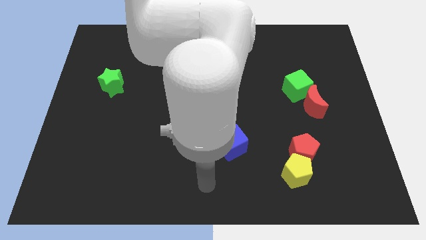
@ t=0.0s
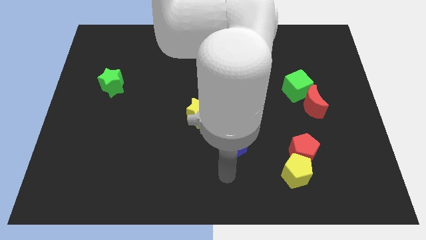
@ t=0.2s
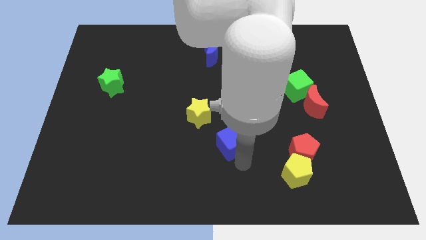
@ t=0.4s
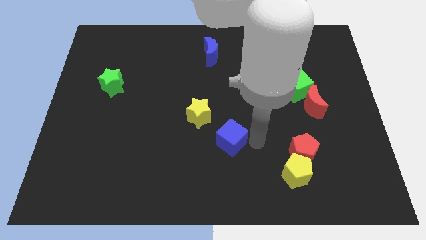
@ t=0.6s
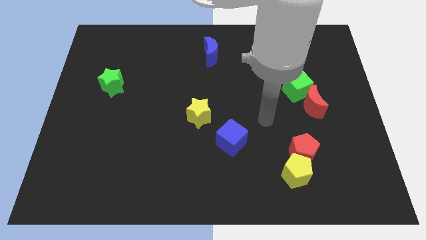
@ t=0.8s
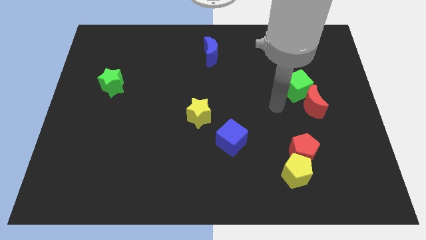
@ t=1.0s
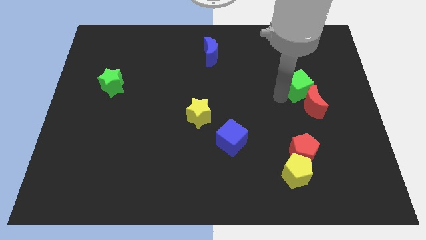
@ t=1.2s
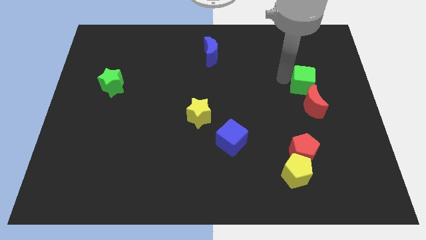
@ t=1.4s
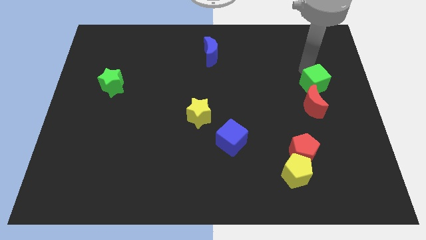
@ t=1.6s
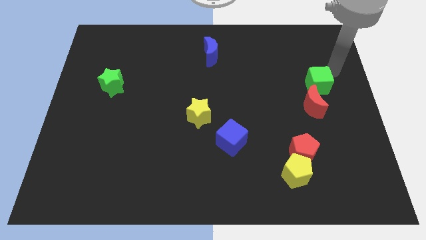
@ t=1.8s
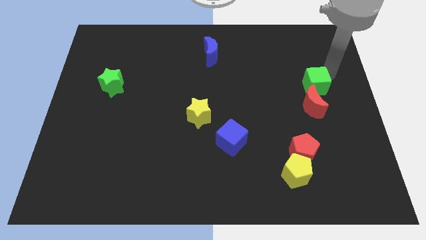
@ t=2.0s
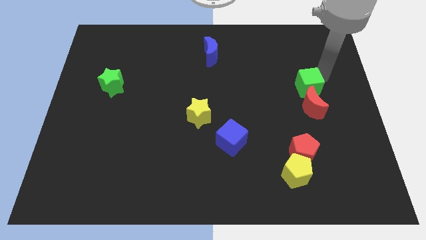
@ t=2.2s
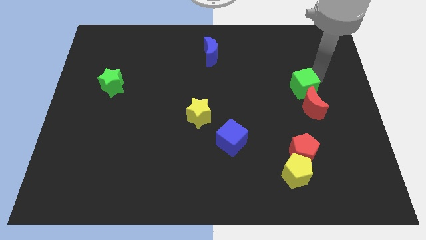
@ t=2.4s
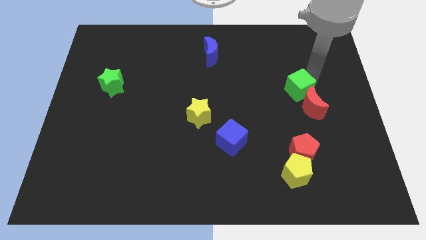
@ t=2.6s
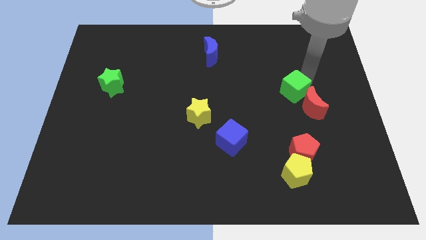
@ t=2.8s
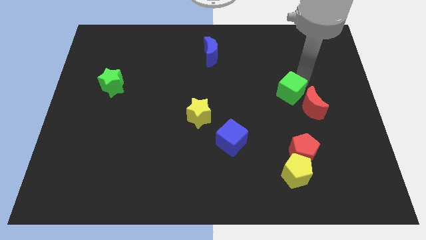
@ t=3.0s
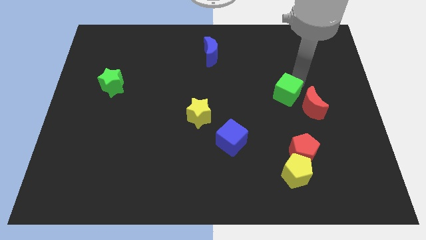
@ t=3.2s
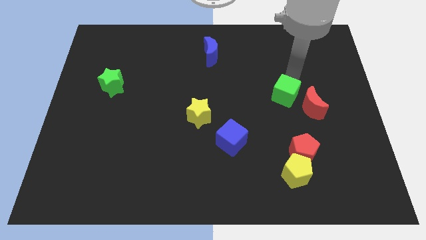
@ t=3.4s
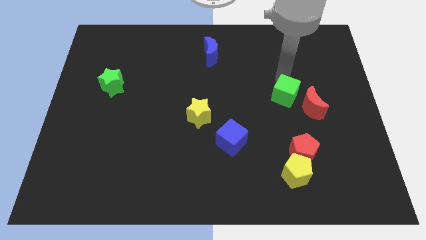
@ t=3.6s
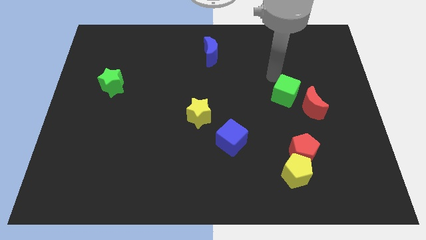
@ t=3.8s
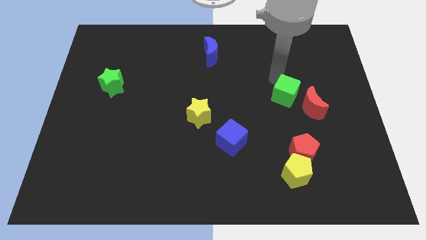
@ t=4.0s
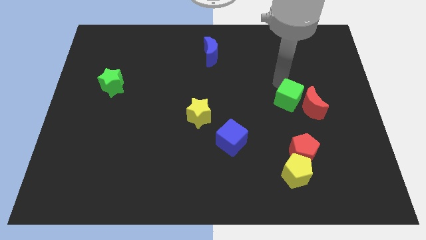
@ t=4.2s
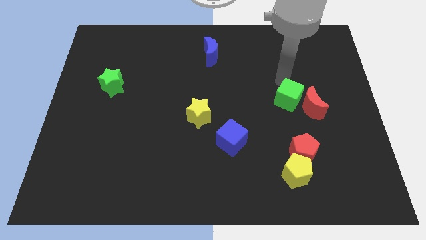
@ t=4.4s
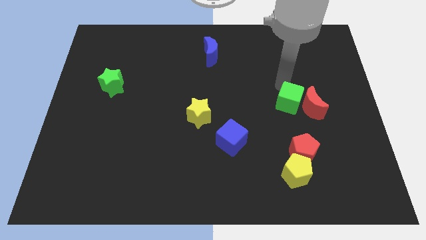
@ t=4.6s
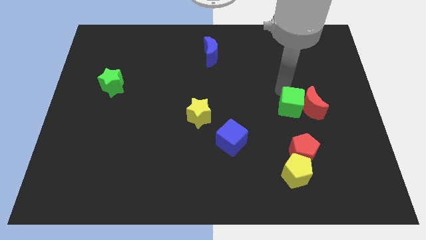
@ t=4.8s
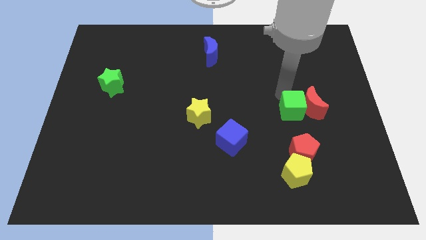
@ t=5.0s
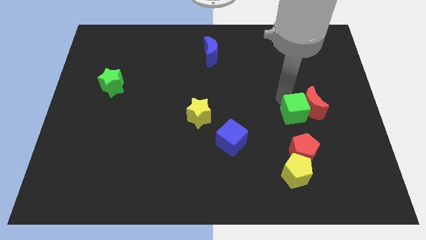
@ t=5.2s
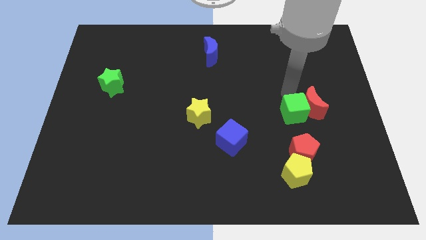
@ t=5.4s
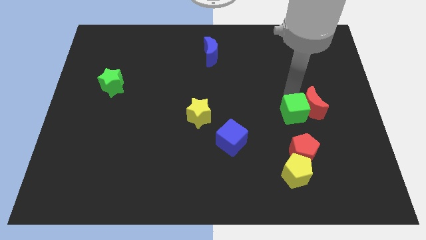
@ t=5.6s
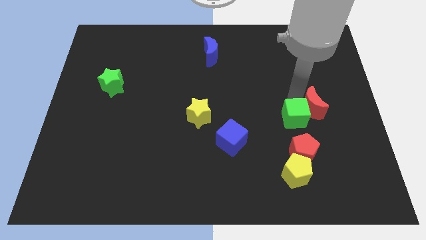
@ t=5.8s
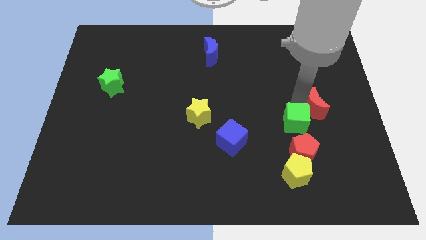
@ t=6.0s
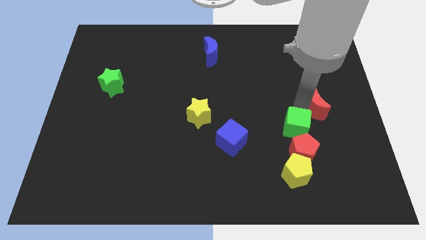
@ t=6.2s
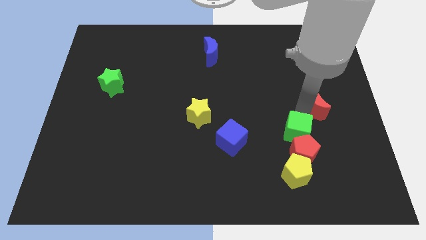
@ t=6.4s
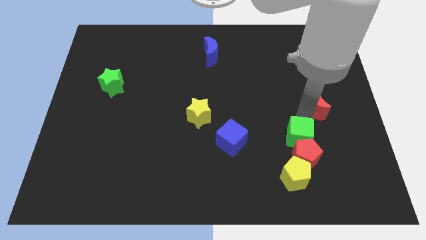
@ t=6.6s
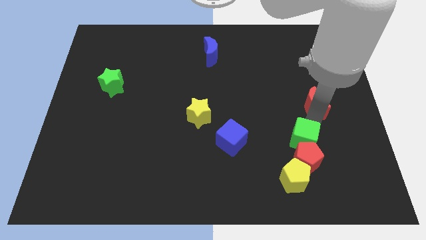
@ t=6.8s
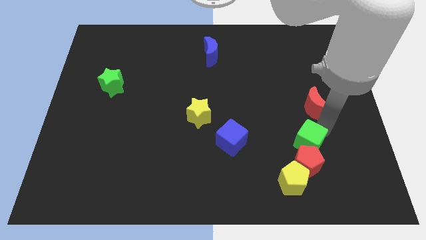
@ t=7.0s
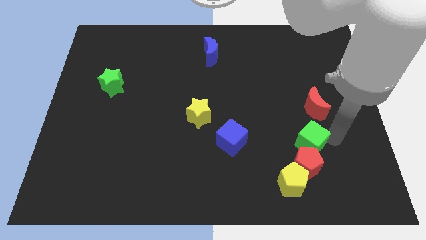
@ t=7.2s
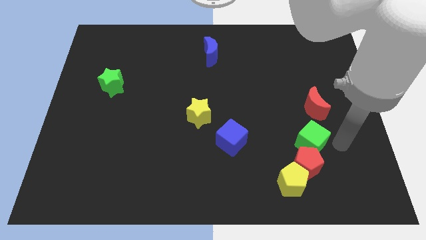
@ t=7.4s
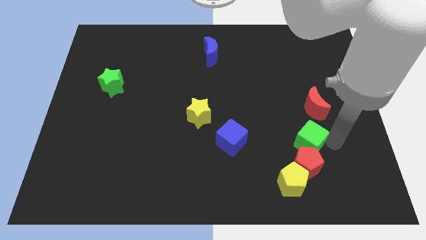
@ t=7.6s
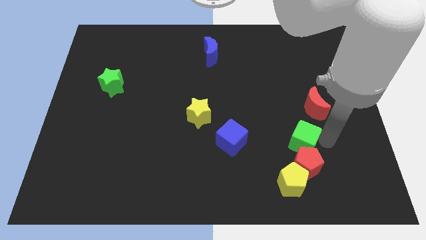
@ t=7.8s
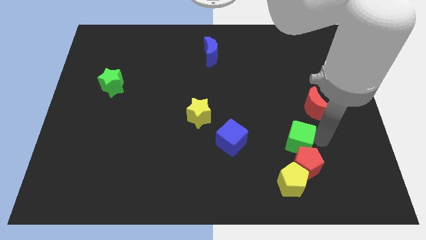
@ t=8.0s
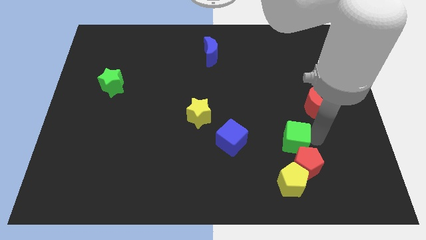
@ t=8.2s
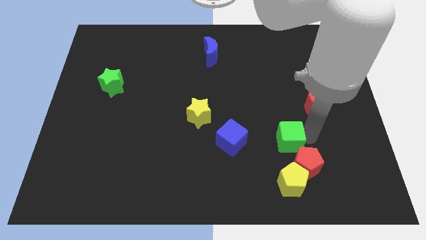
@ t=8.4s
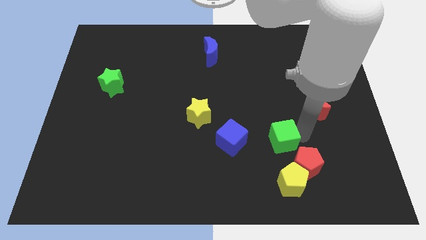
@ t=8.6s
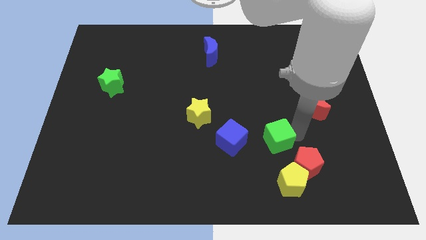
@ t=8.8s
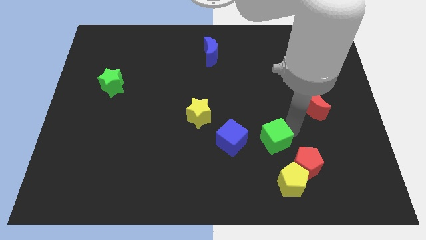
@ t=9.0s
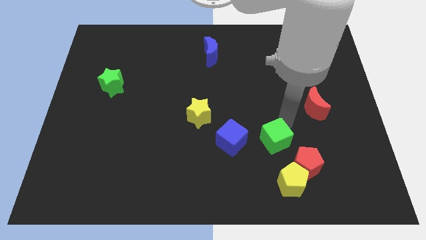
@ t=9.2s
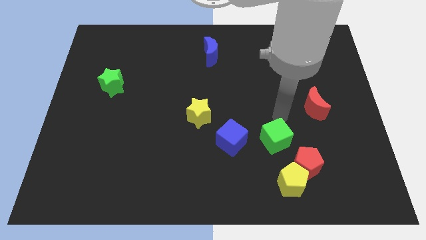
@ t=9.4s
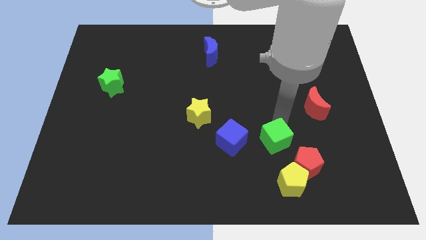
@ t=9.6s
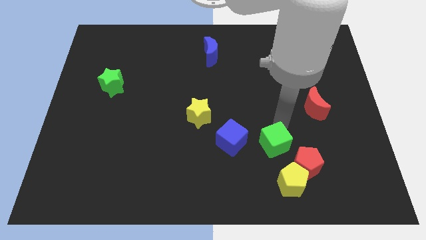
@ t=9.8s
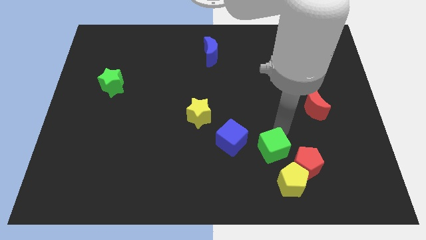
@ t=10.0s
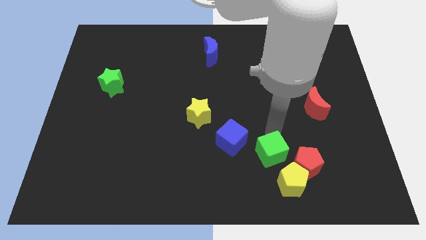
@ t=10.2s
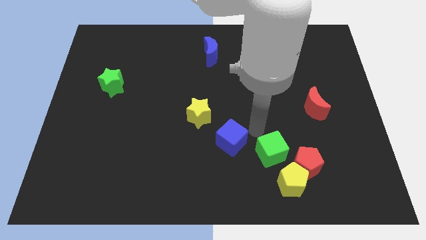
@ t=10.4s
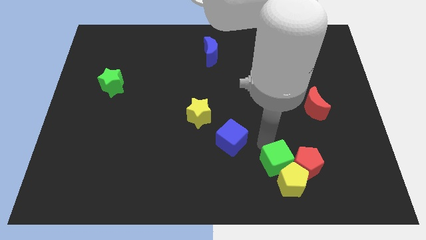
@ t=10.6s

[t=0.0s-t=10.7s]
put the green cube close to the yellow pentagon

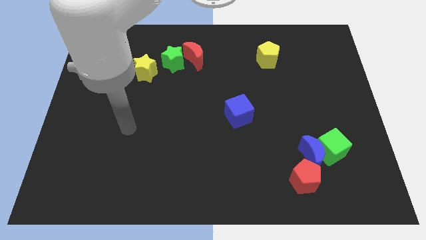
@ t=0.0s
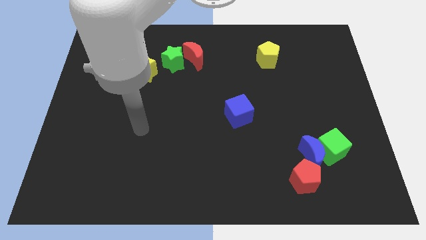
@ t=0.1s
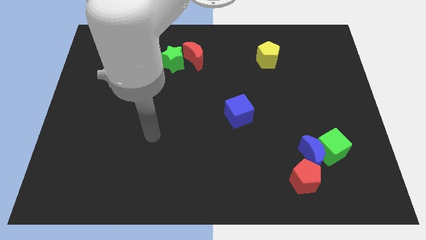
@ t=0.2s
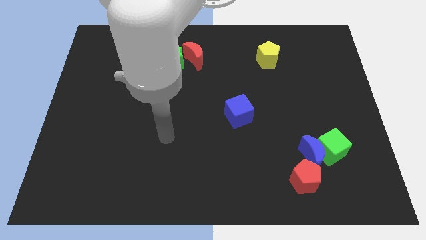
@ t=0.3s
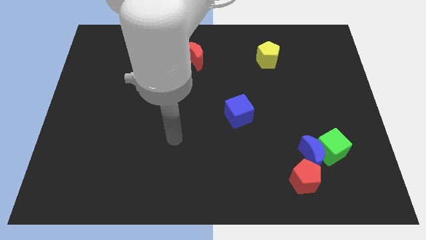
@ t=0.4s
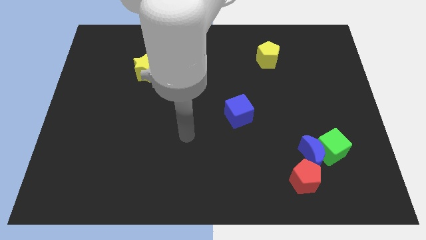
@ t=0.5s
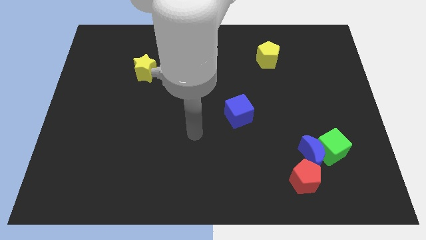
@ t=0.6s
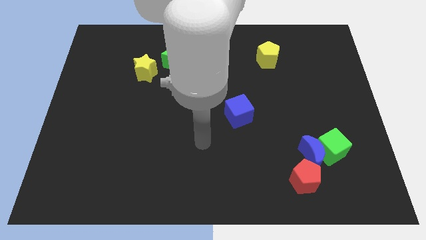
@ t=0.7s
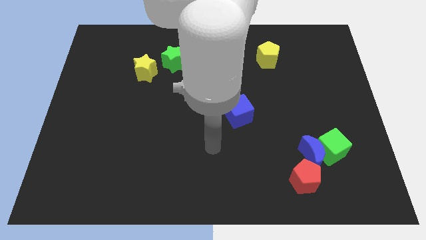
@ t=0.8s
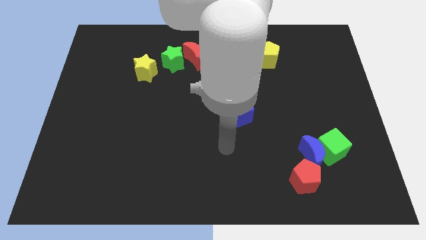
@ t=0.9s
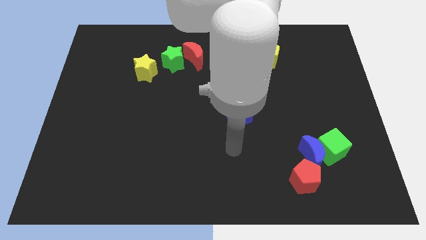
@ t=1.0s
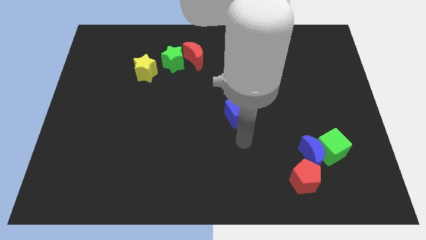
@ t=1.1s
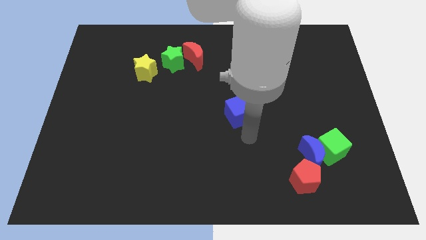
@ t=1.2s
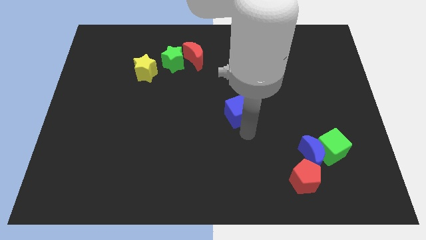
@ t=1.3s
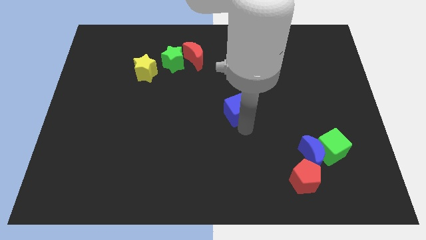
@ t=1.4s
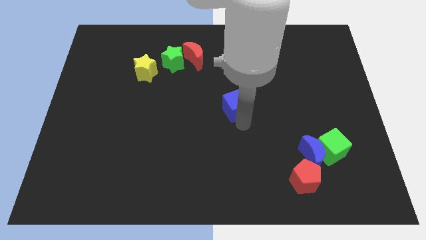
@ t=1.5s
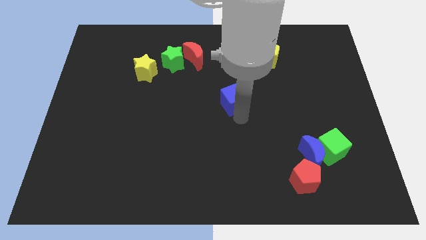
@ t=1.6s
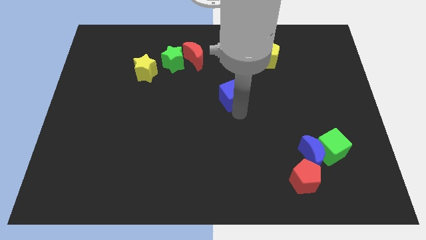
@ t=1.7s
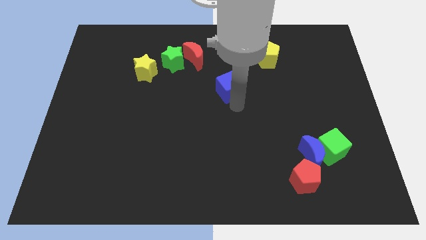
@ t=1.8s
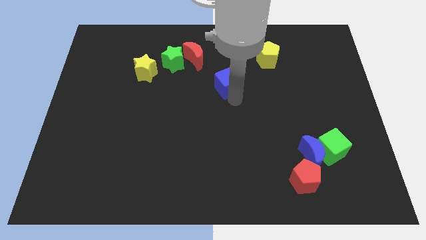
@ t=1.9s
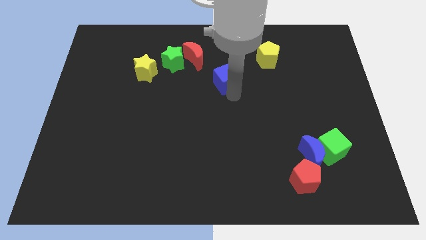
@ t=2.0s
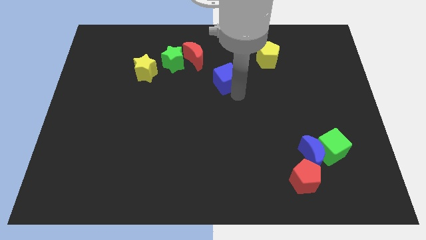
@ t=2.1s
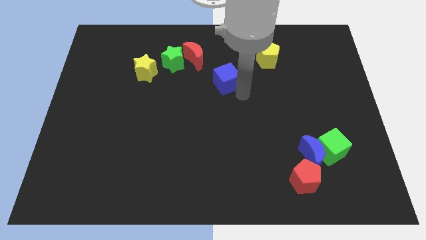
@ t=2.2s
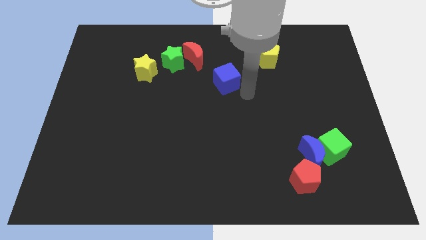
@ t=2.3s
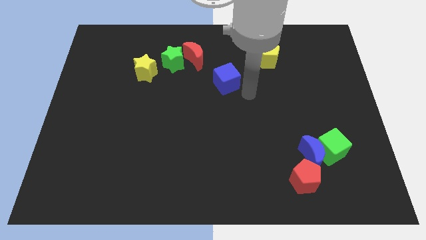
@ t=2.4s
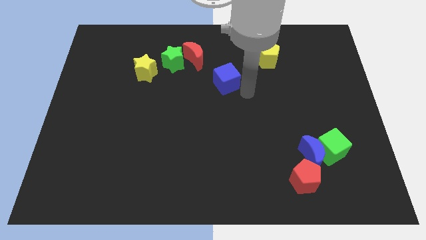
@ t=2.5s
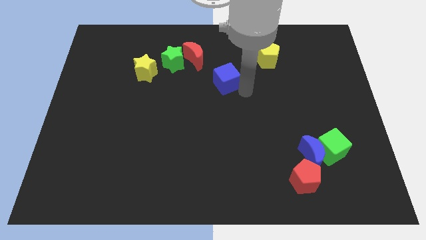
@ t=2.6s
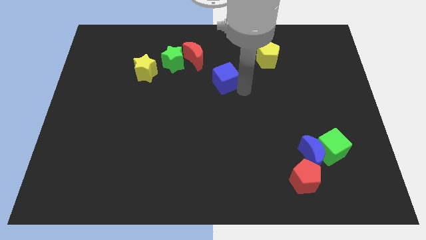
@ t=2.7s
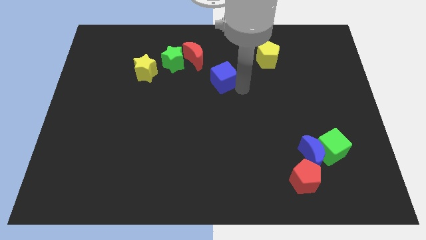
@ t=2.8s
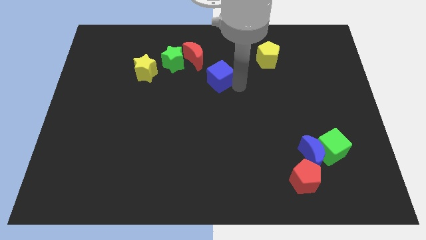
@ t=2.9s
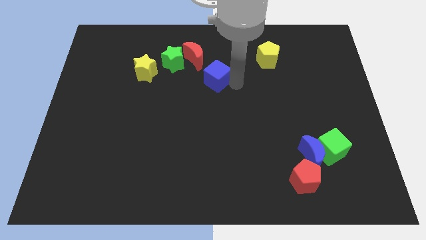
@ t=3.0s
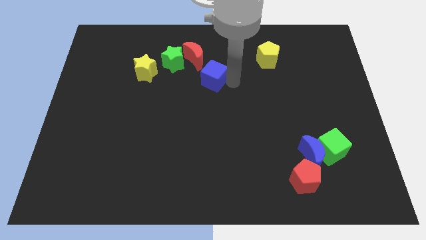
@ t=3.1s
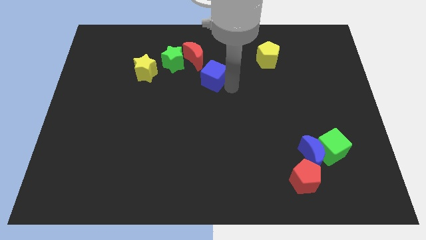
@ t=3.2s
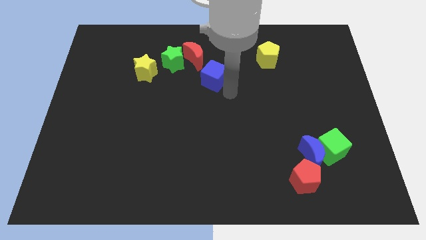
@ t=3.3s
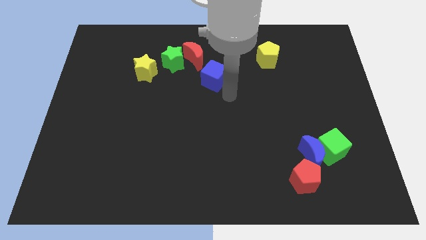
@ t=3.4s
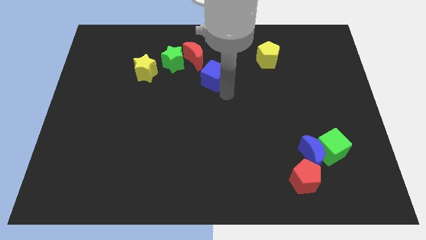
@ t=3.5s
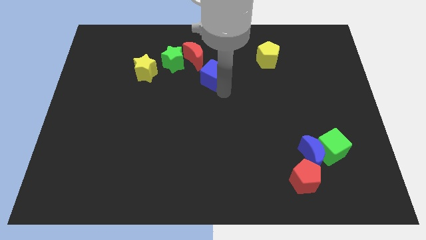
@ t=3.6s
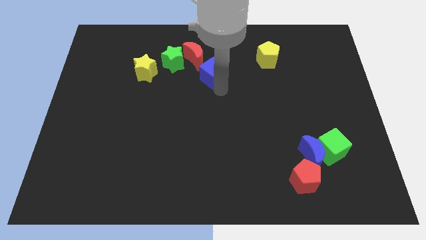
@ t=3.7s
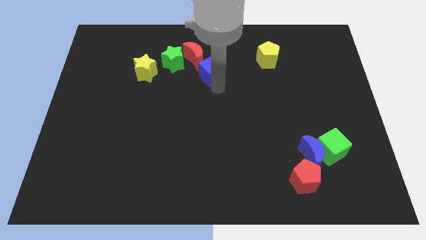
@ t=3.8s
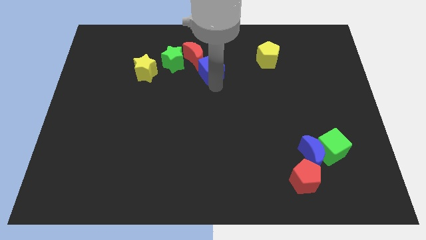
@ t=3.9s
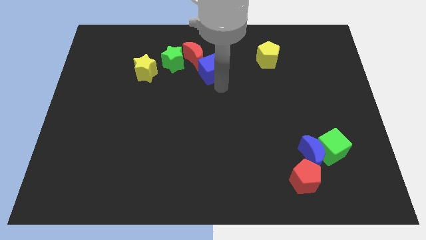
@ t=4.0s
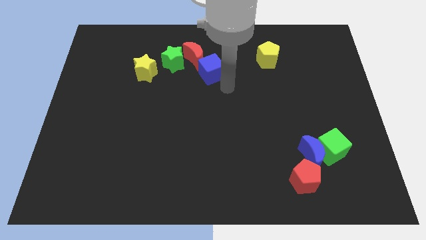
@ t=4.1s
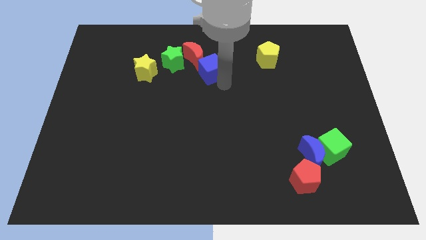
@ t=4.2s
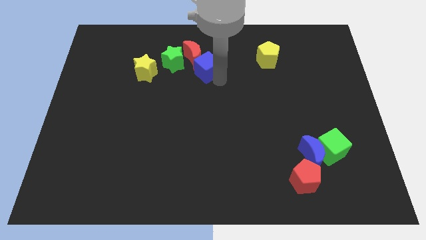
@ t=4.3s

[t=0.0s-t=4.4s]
push the blue cube towards the red moon
